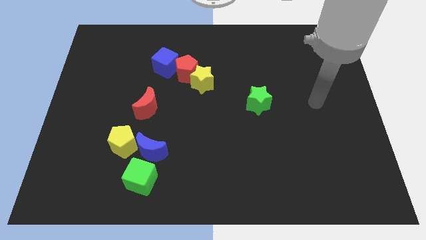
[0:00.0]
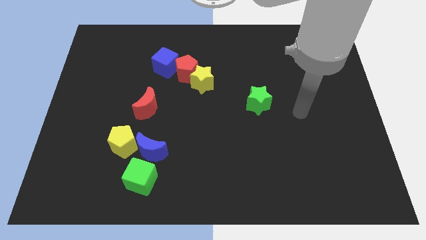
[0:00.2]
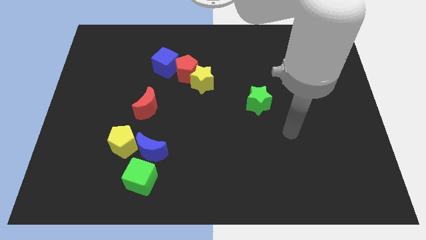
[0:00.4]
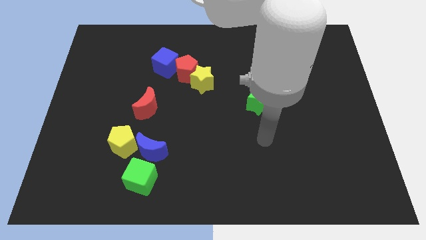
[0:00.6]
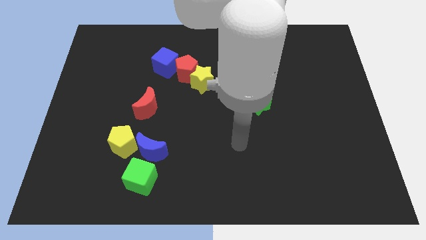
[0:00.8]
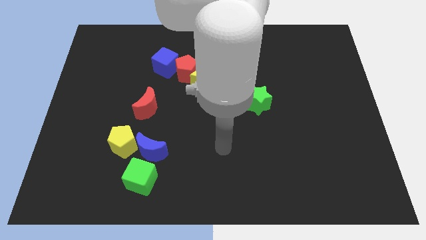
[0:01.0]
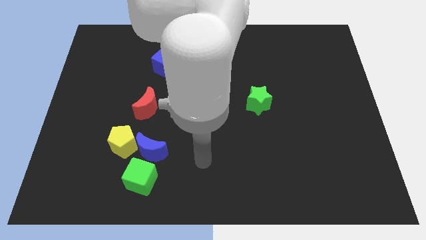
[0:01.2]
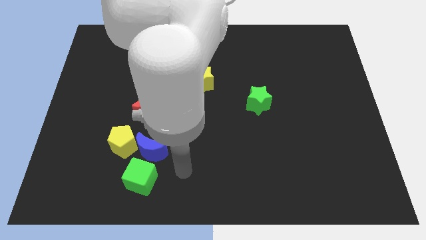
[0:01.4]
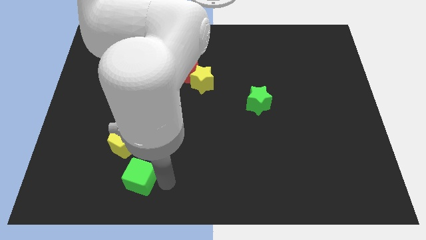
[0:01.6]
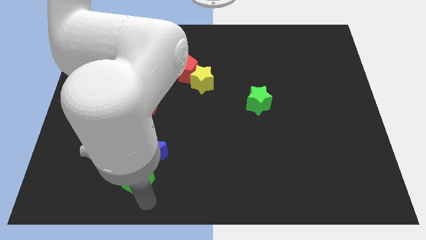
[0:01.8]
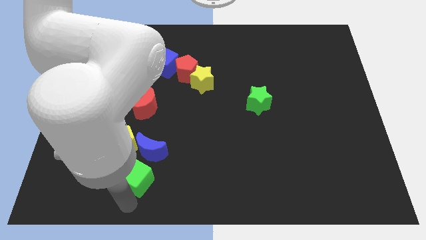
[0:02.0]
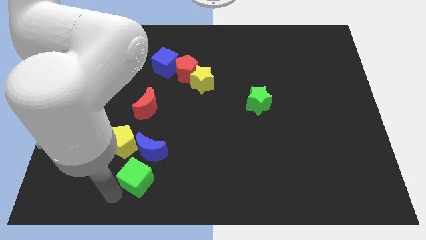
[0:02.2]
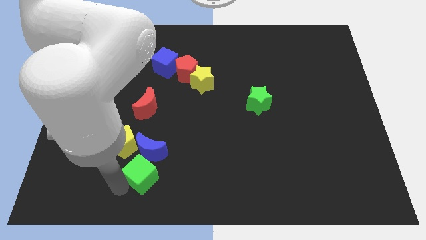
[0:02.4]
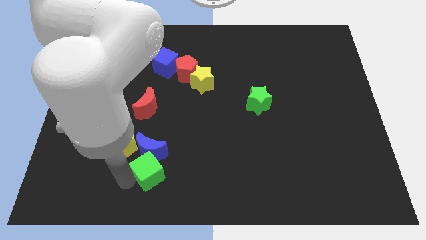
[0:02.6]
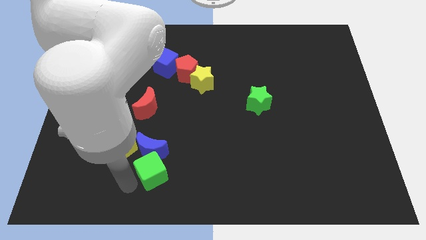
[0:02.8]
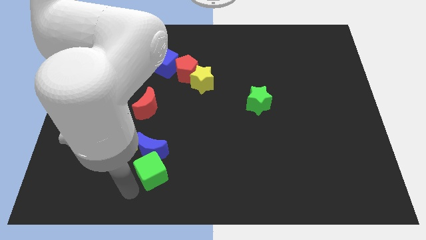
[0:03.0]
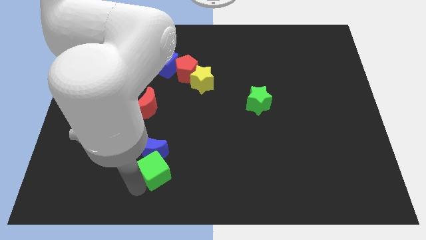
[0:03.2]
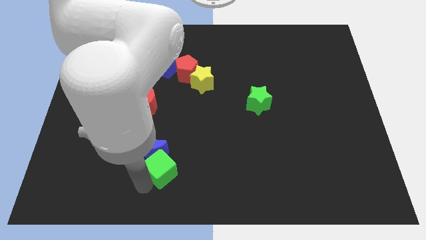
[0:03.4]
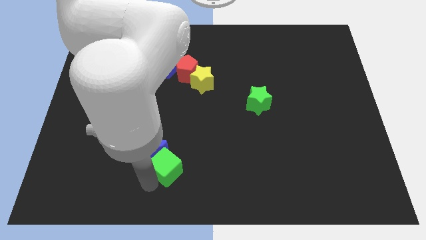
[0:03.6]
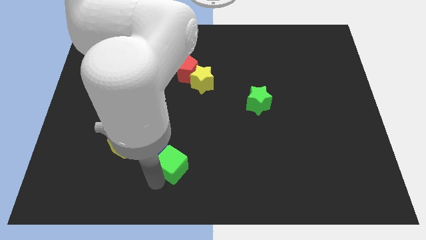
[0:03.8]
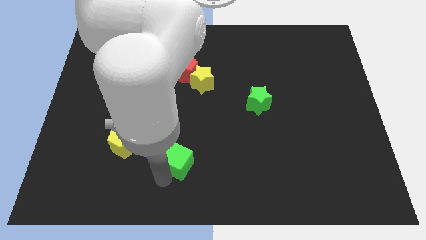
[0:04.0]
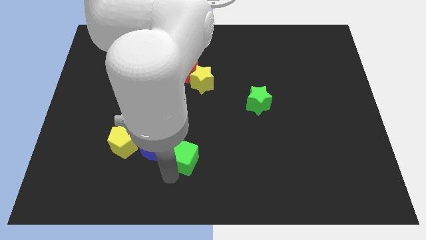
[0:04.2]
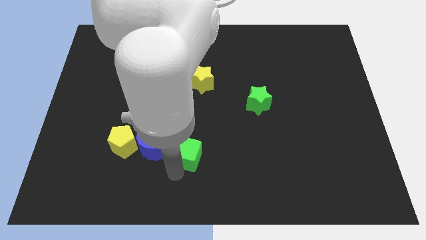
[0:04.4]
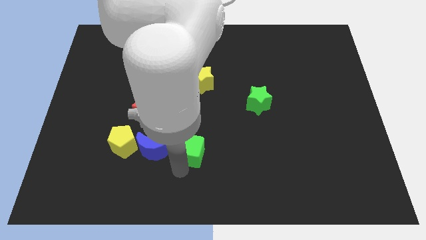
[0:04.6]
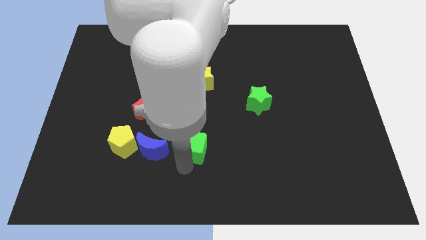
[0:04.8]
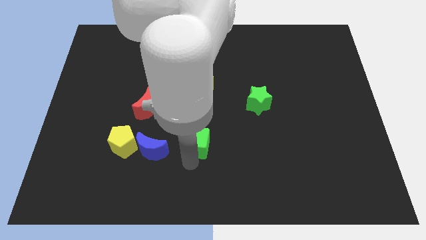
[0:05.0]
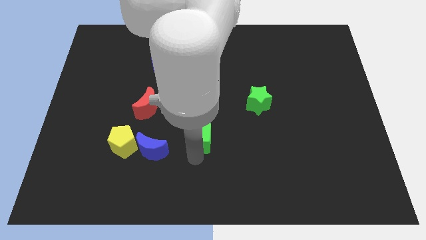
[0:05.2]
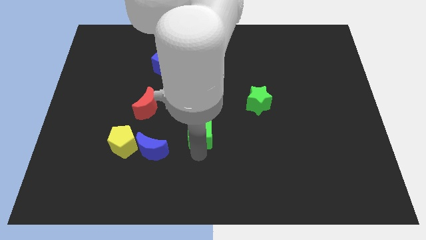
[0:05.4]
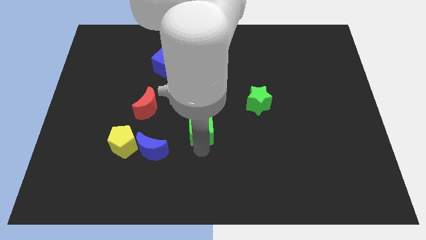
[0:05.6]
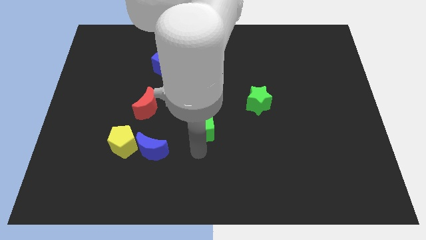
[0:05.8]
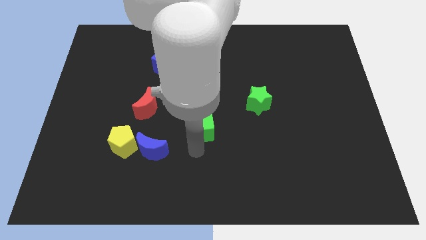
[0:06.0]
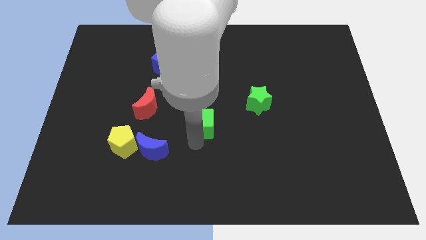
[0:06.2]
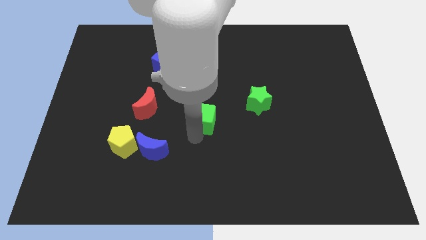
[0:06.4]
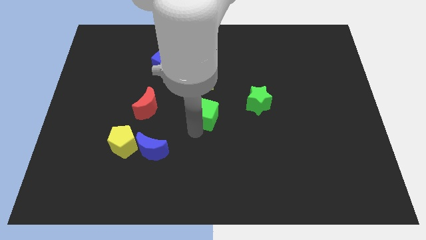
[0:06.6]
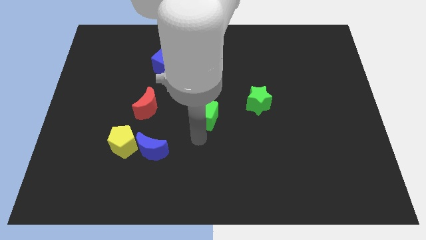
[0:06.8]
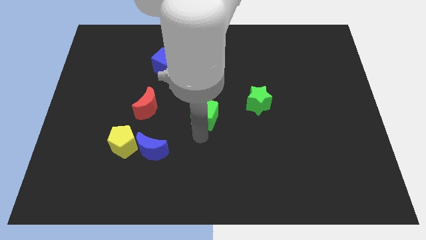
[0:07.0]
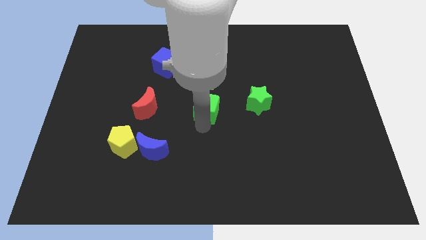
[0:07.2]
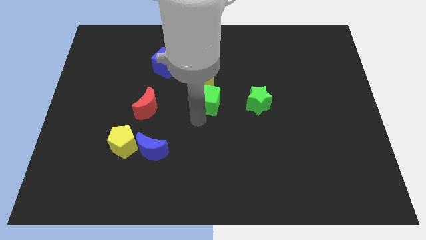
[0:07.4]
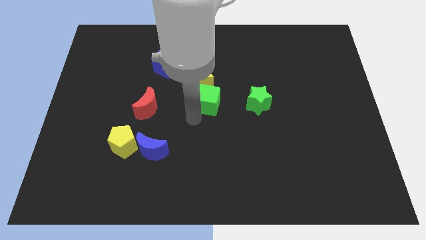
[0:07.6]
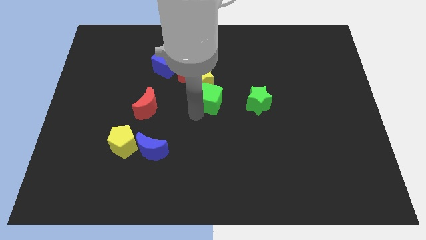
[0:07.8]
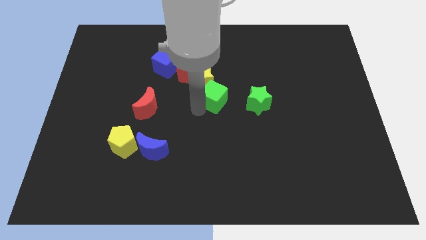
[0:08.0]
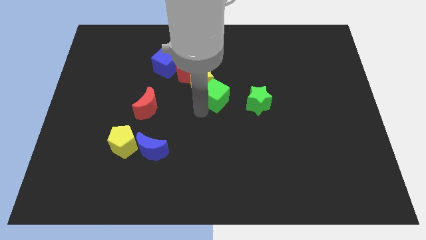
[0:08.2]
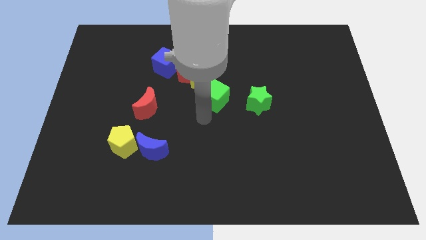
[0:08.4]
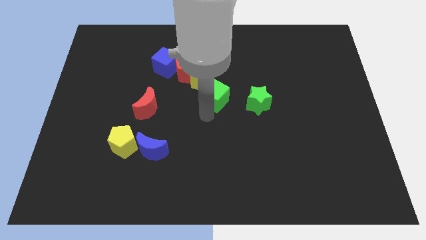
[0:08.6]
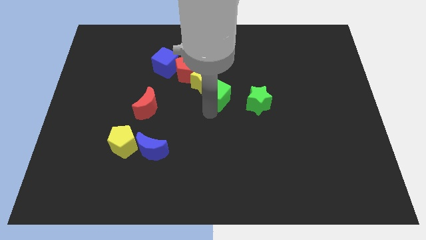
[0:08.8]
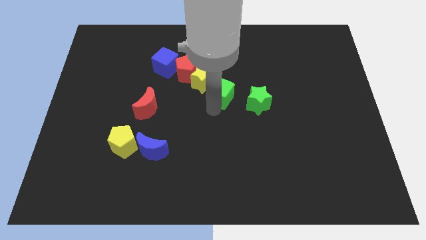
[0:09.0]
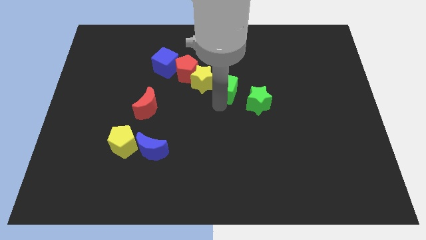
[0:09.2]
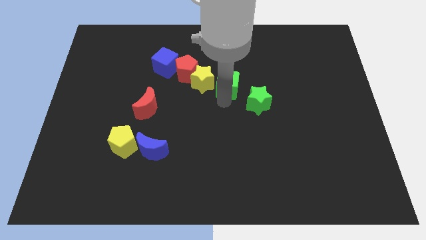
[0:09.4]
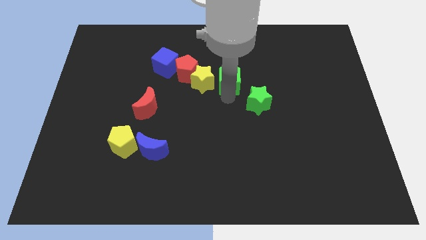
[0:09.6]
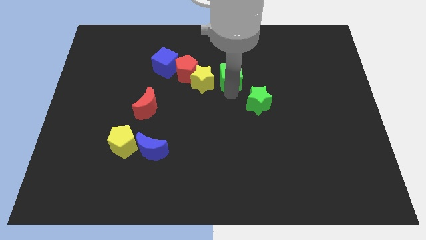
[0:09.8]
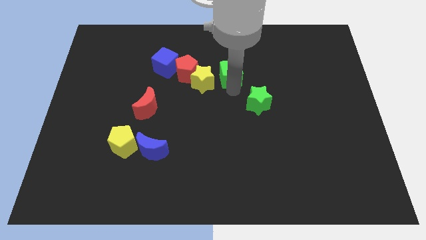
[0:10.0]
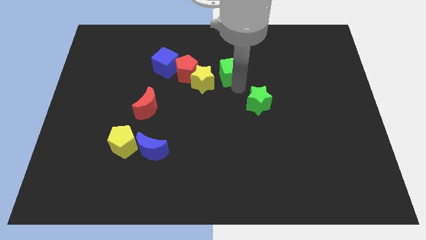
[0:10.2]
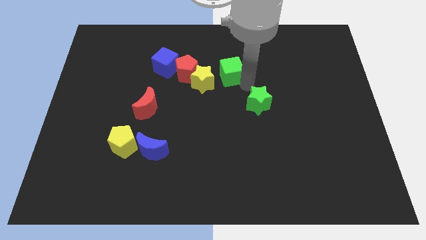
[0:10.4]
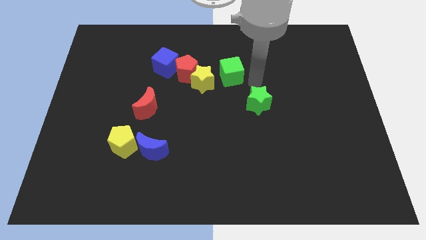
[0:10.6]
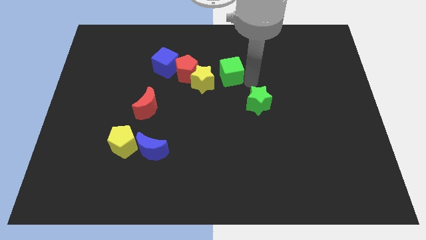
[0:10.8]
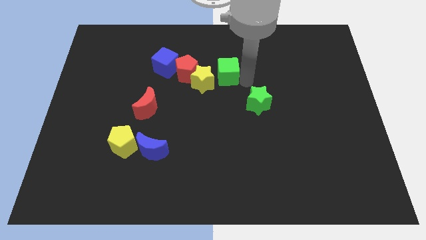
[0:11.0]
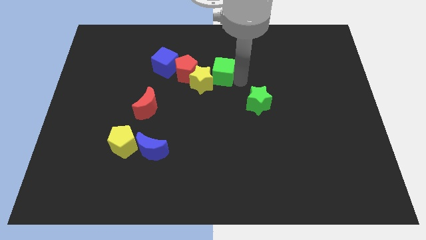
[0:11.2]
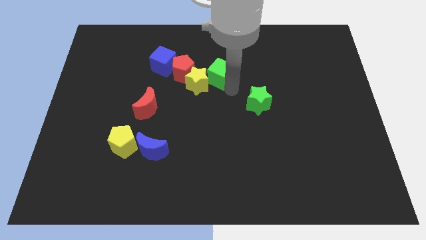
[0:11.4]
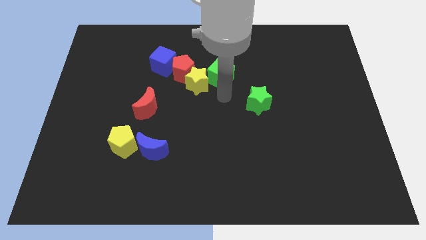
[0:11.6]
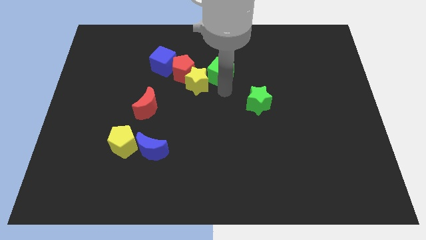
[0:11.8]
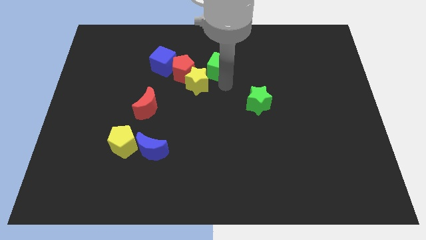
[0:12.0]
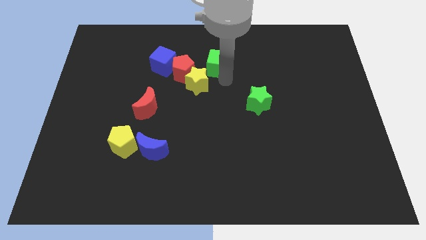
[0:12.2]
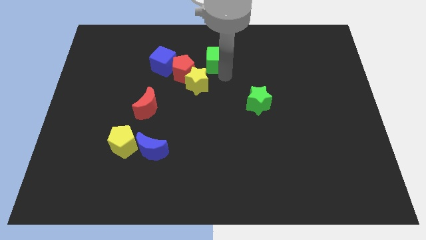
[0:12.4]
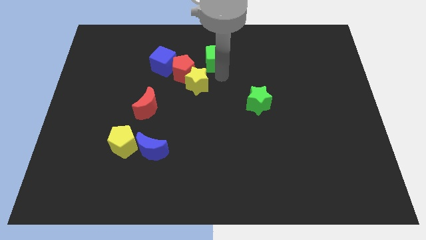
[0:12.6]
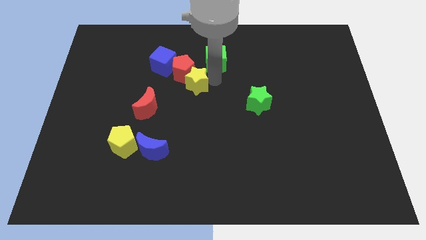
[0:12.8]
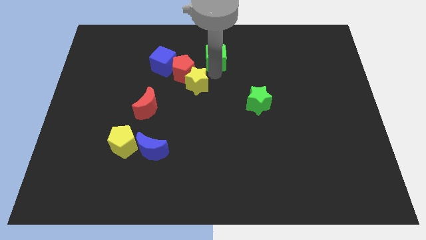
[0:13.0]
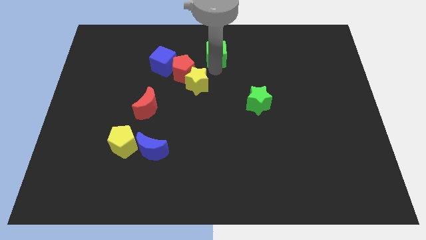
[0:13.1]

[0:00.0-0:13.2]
push the green cube to the top side
